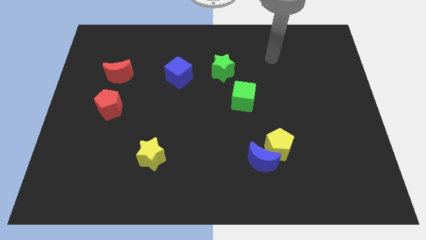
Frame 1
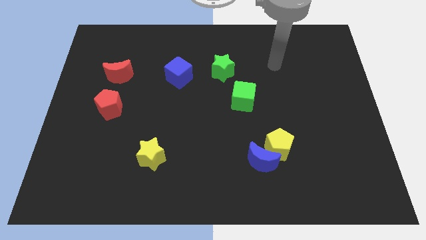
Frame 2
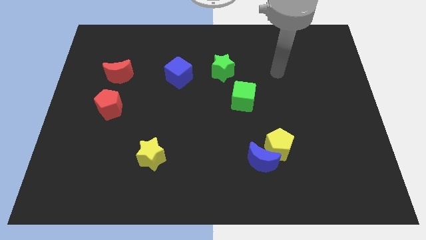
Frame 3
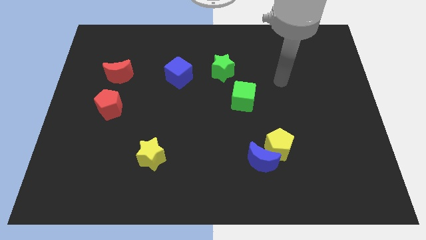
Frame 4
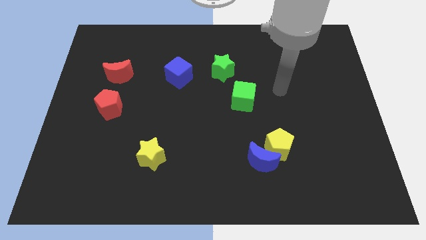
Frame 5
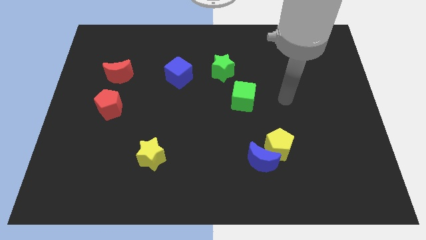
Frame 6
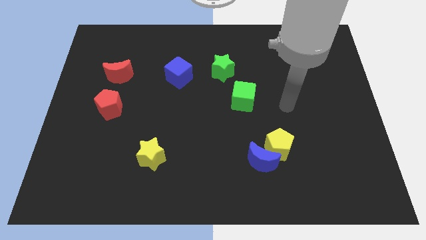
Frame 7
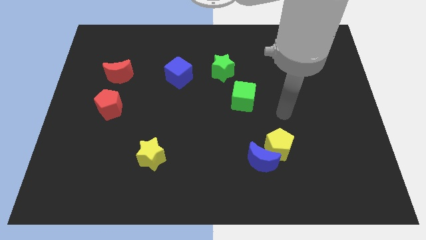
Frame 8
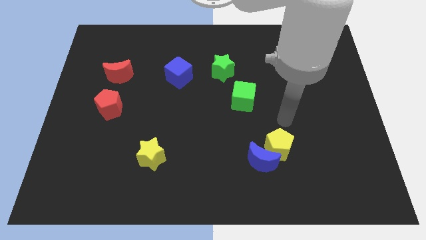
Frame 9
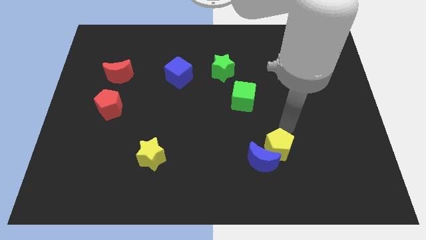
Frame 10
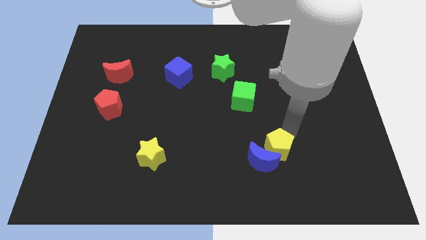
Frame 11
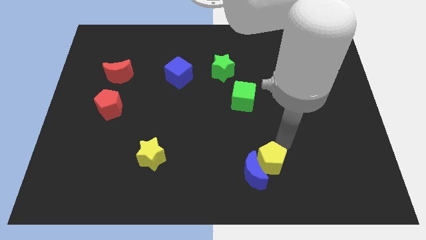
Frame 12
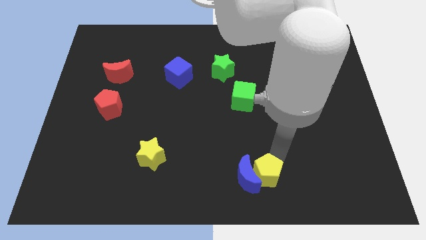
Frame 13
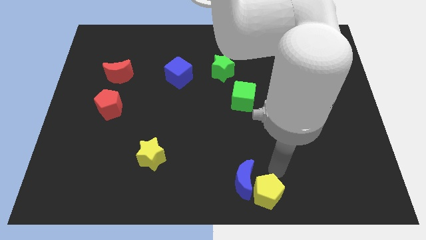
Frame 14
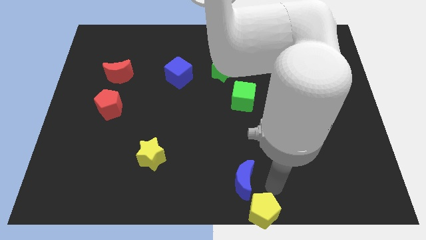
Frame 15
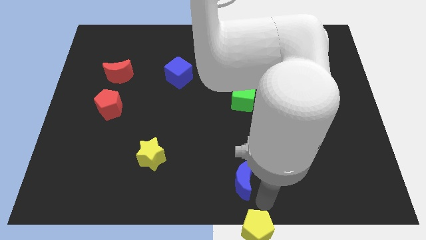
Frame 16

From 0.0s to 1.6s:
move the blue moon away from the yellow pentagon

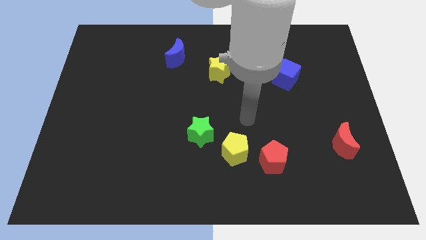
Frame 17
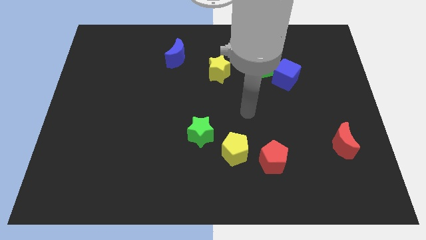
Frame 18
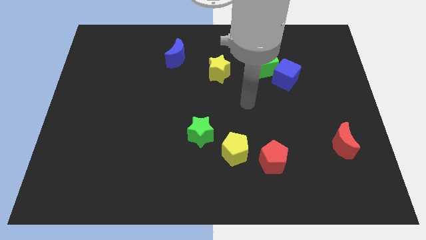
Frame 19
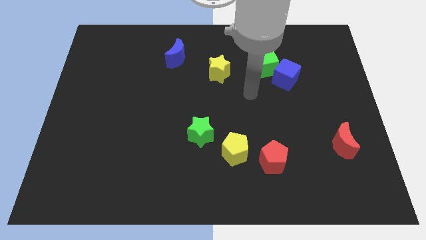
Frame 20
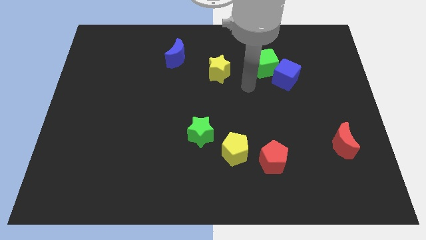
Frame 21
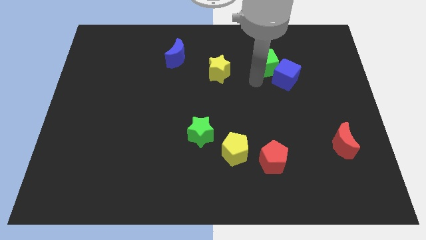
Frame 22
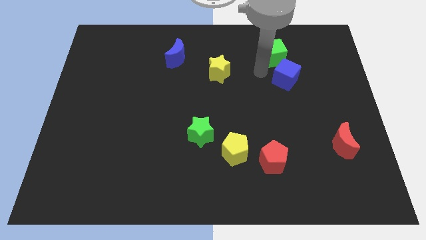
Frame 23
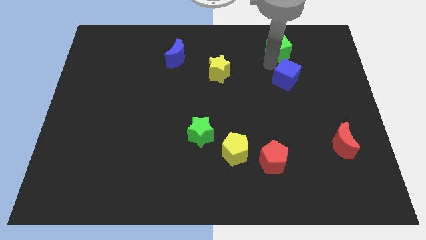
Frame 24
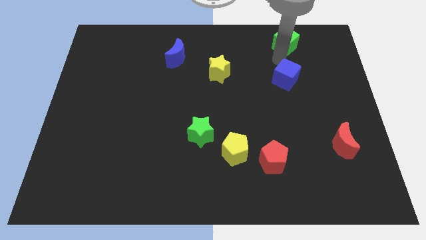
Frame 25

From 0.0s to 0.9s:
pull the blue cube apart from the green cube

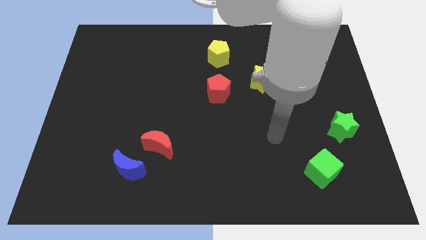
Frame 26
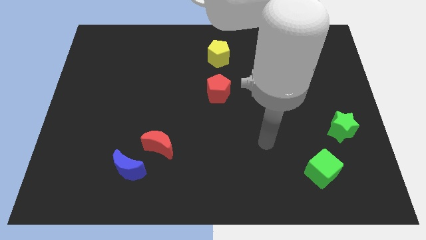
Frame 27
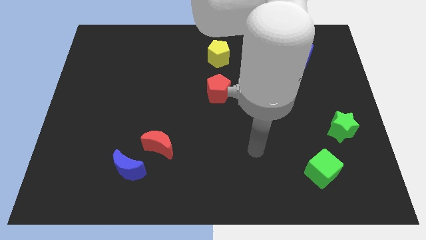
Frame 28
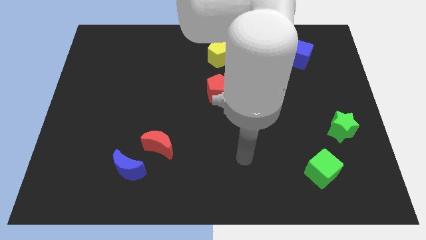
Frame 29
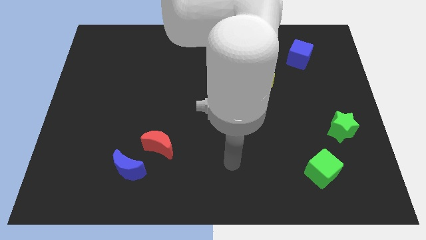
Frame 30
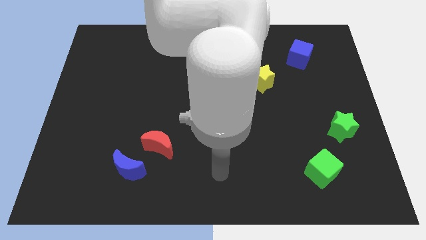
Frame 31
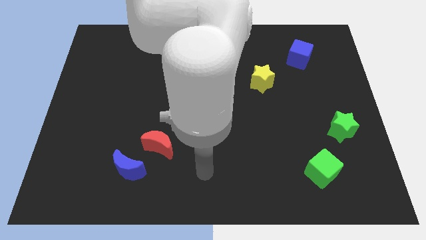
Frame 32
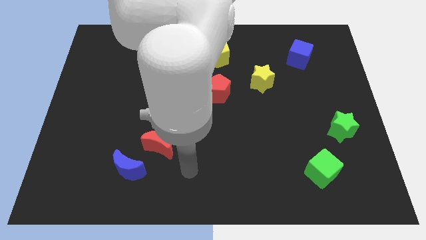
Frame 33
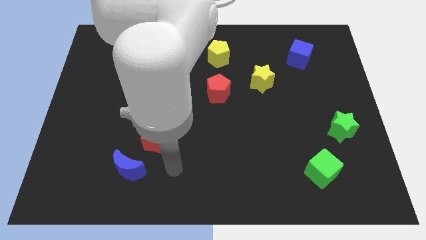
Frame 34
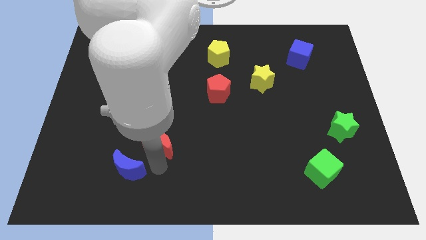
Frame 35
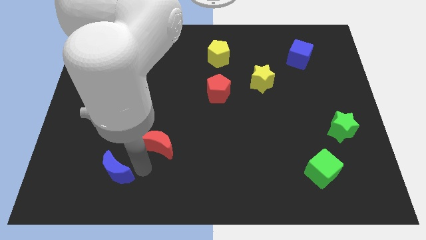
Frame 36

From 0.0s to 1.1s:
move the red moon away from the blue moon

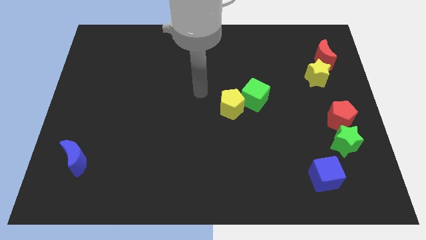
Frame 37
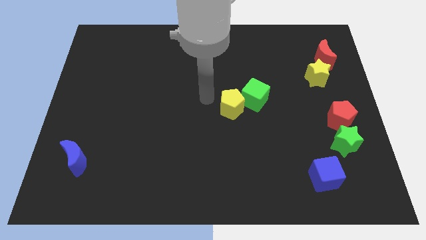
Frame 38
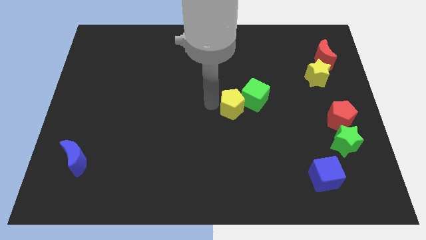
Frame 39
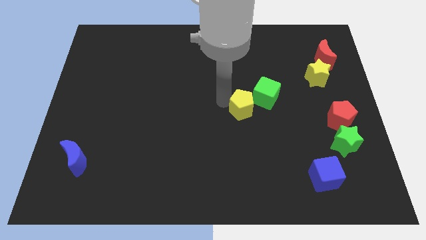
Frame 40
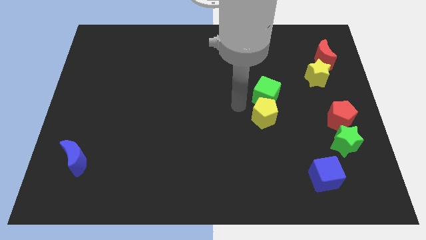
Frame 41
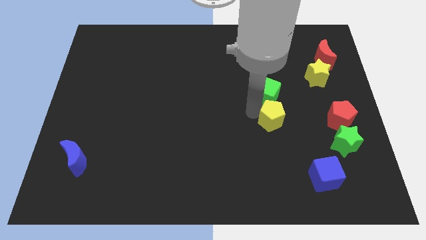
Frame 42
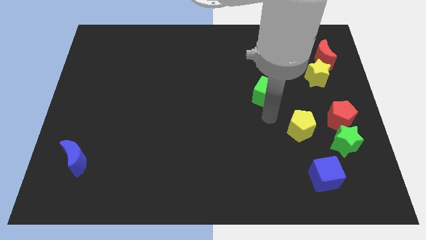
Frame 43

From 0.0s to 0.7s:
pull the green cube apart from the yellow pentagon

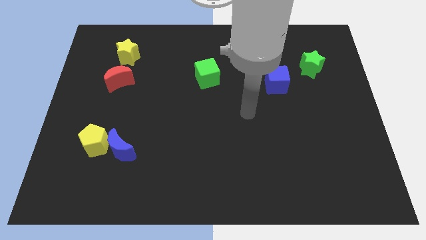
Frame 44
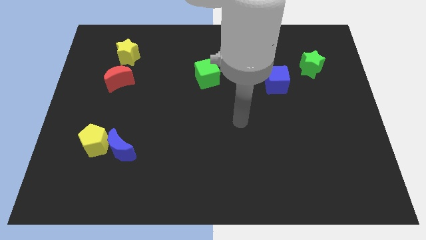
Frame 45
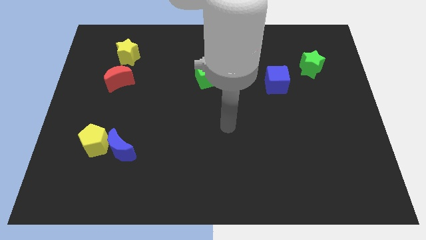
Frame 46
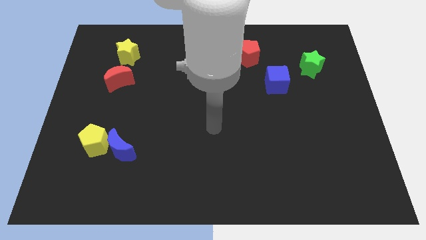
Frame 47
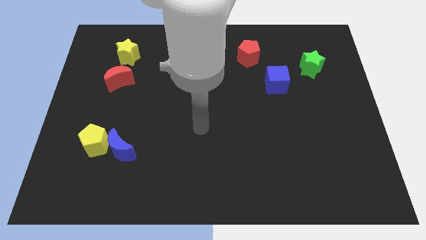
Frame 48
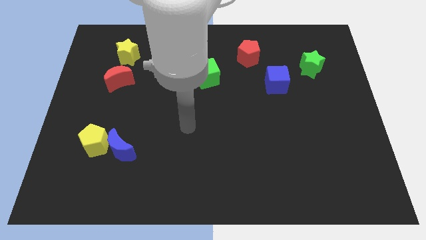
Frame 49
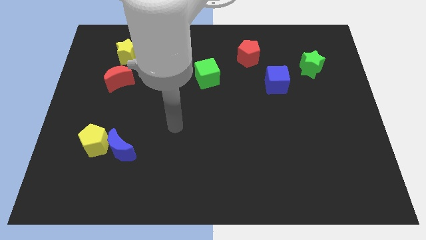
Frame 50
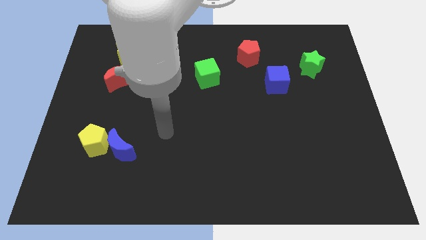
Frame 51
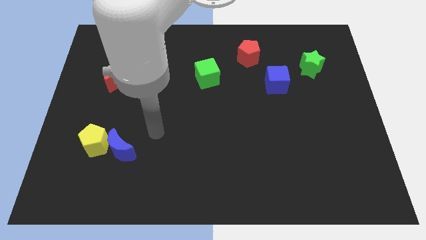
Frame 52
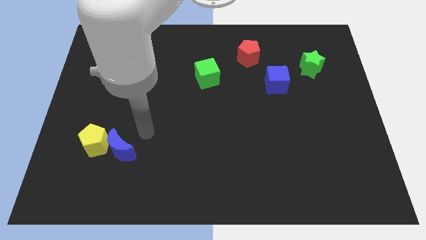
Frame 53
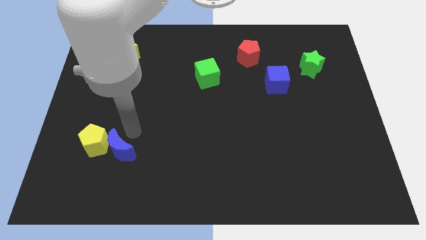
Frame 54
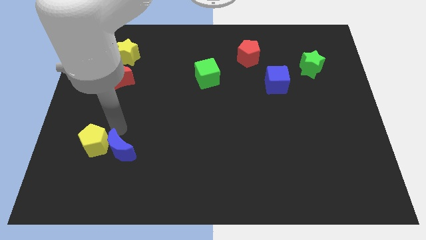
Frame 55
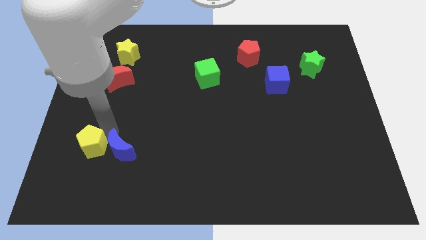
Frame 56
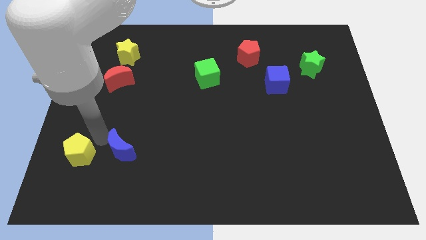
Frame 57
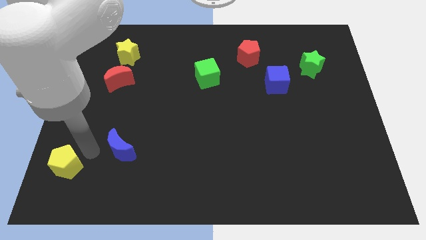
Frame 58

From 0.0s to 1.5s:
pull the blue moon apart from the yellow pentagon

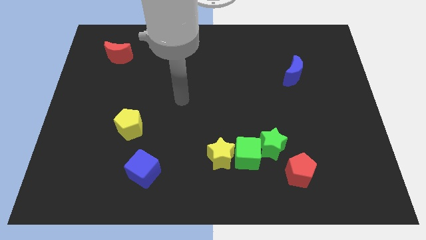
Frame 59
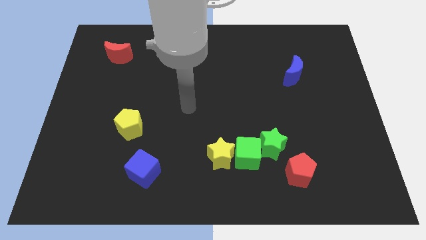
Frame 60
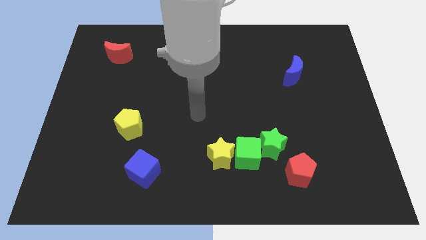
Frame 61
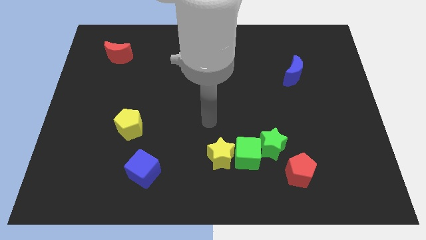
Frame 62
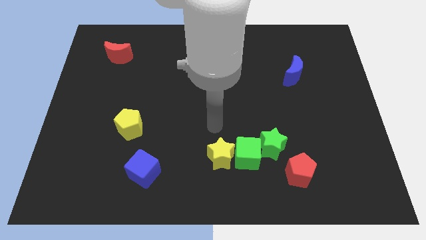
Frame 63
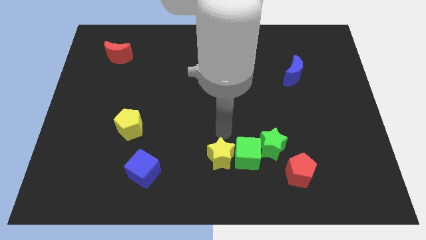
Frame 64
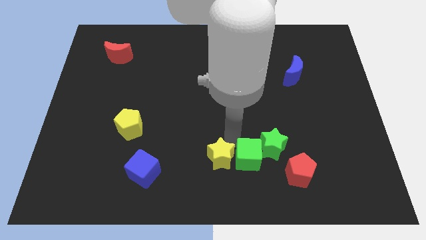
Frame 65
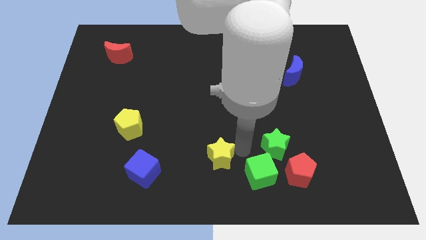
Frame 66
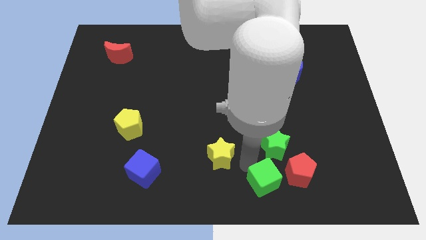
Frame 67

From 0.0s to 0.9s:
pull the yellow star apart from the green cube

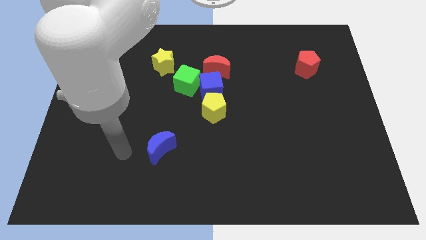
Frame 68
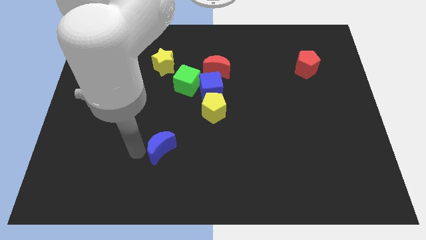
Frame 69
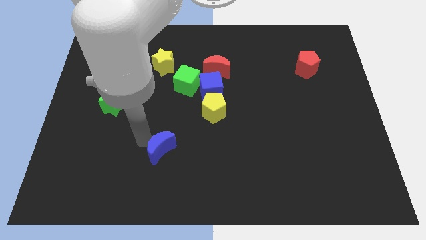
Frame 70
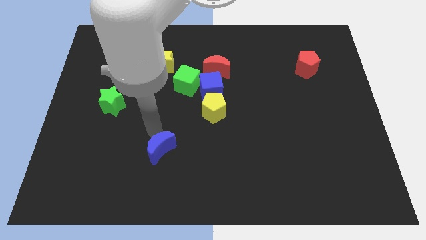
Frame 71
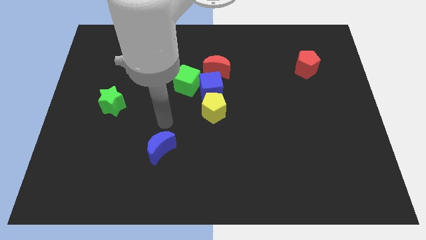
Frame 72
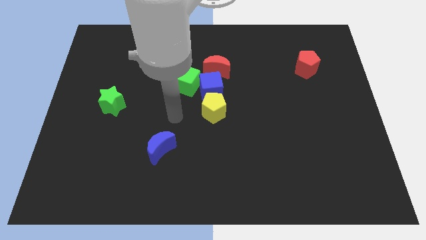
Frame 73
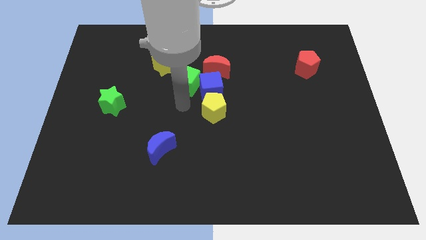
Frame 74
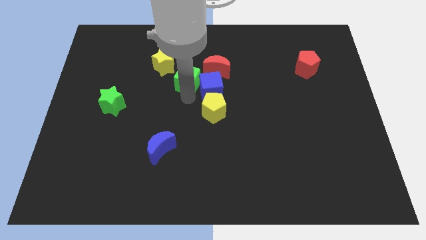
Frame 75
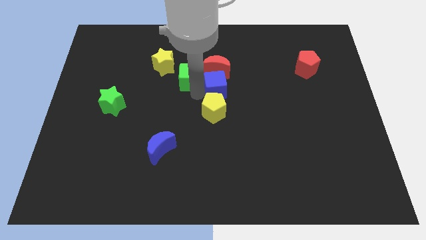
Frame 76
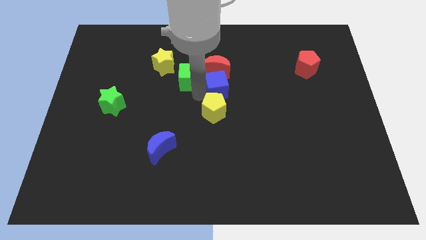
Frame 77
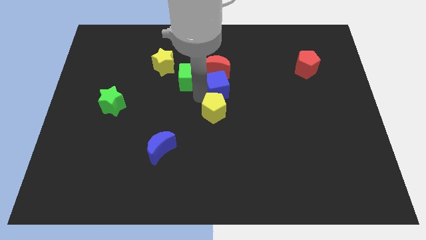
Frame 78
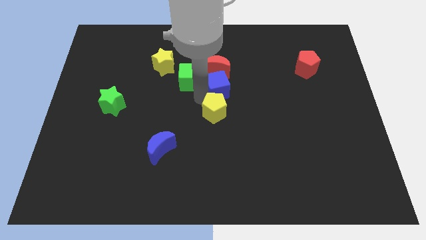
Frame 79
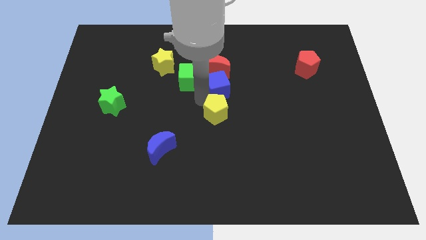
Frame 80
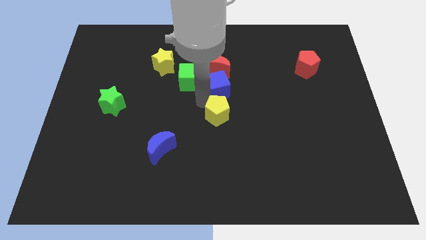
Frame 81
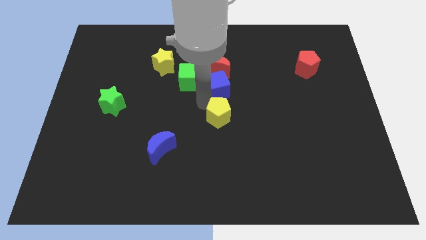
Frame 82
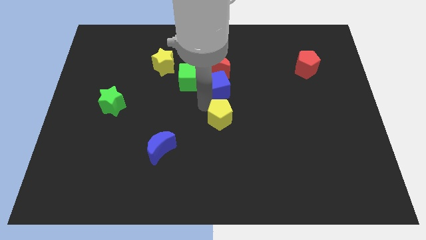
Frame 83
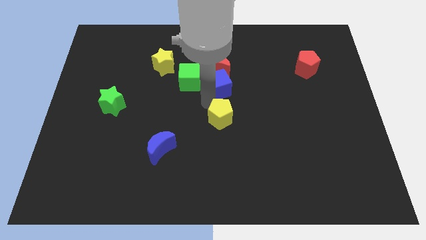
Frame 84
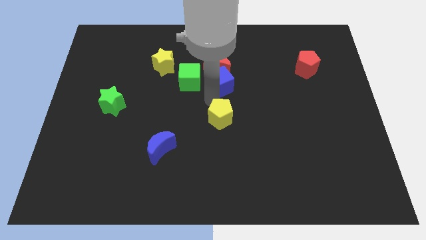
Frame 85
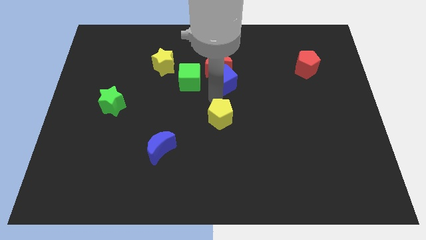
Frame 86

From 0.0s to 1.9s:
pull the yellow pentagon apart from the blue cube

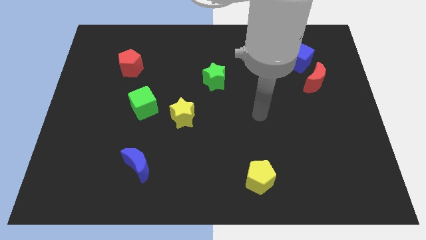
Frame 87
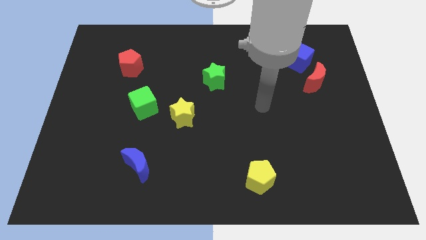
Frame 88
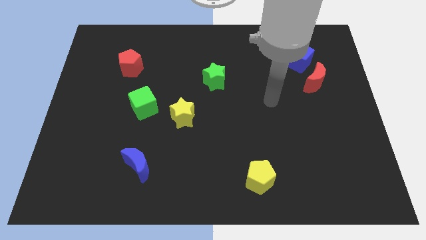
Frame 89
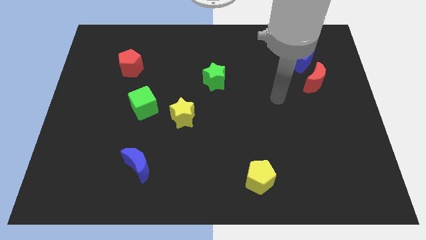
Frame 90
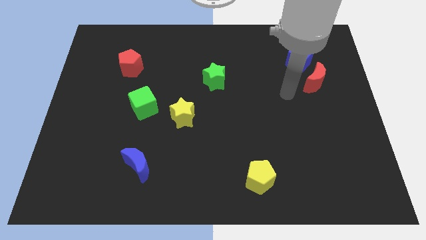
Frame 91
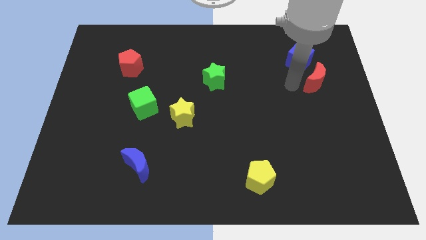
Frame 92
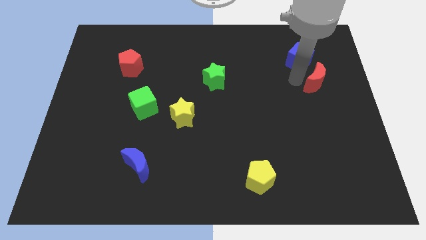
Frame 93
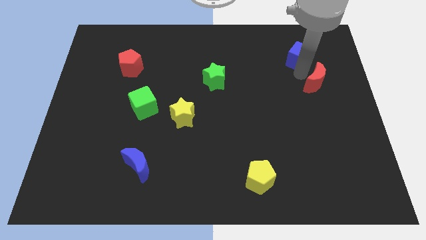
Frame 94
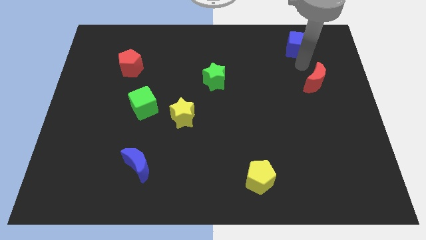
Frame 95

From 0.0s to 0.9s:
pull the red moon apart from the blue cube
